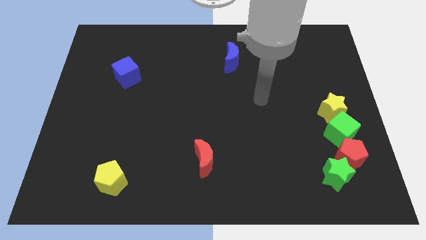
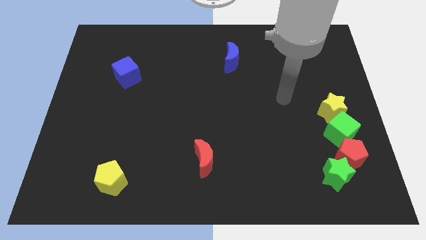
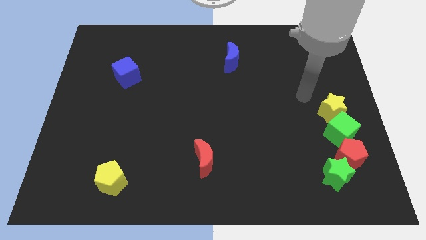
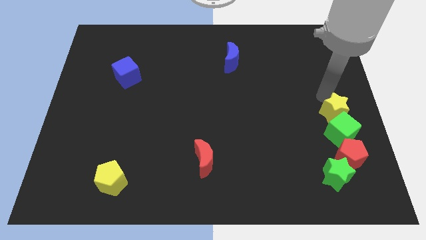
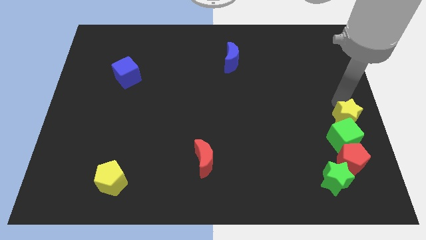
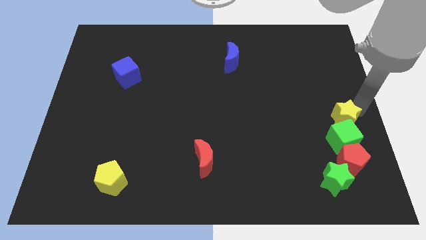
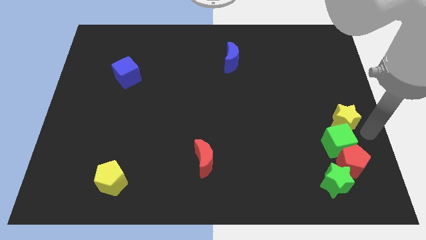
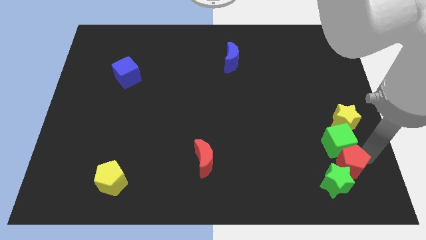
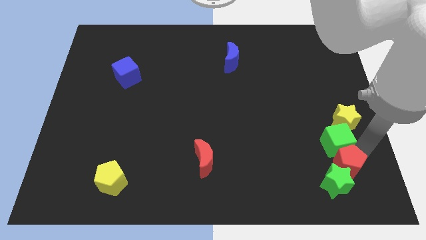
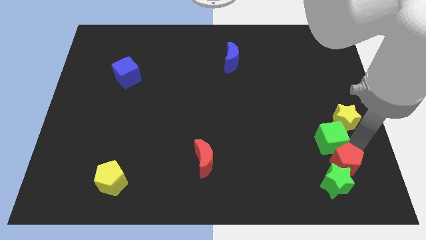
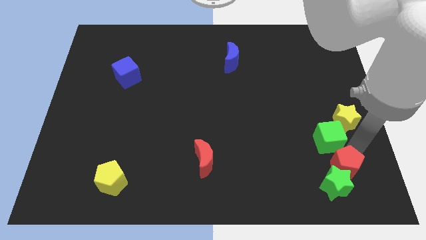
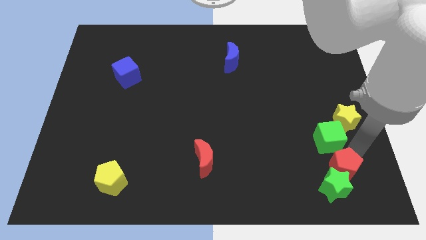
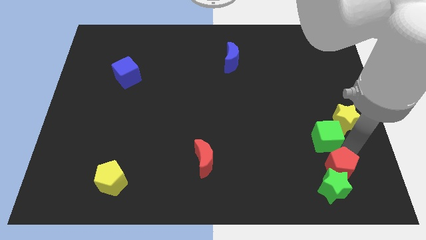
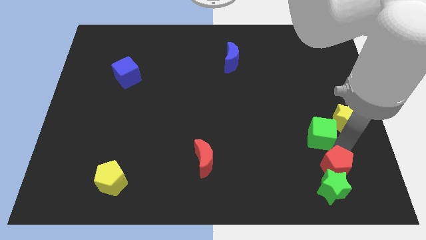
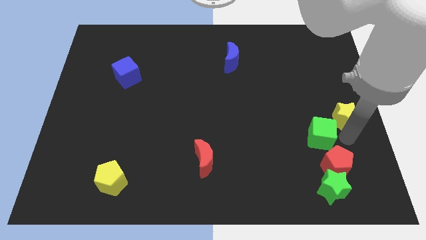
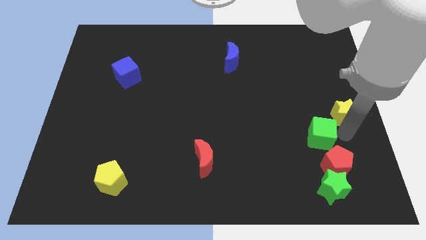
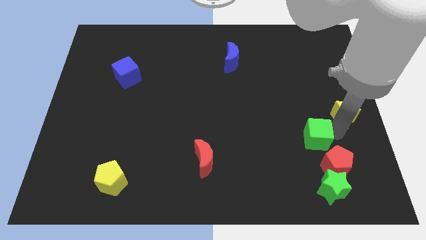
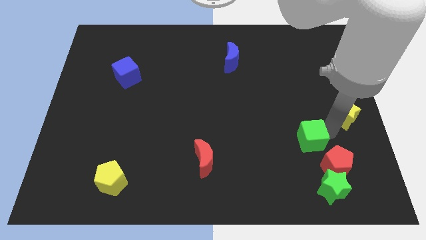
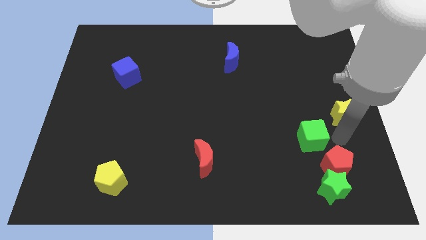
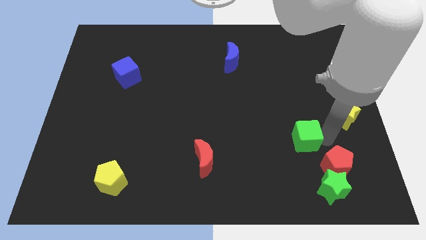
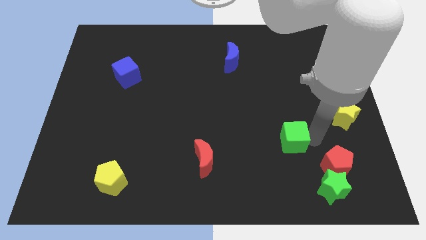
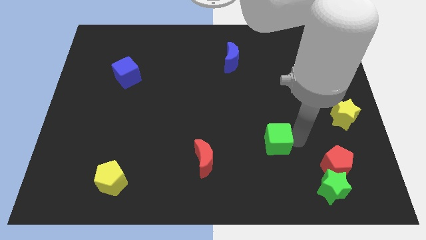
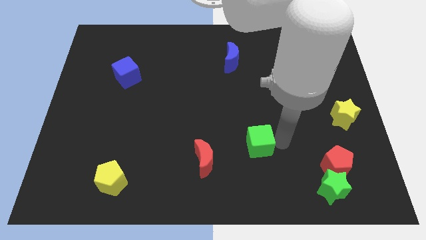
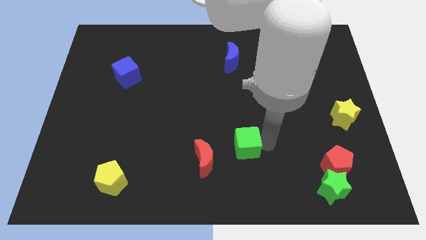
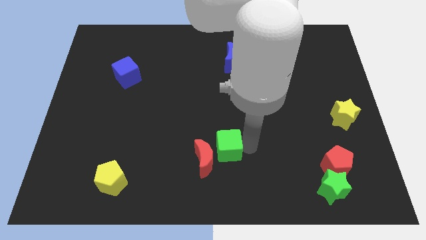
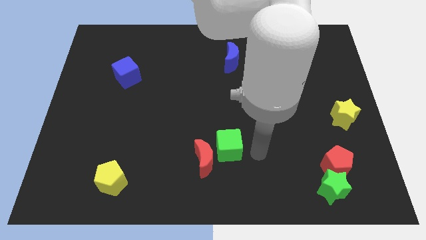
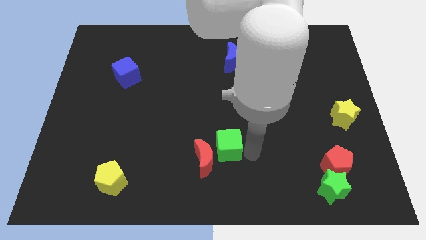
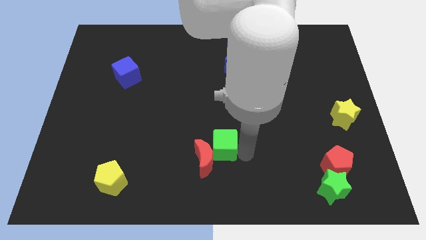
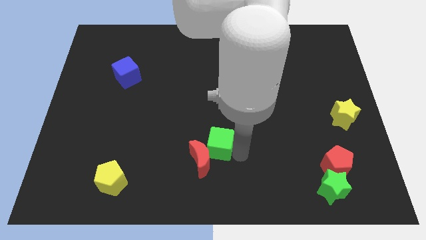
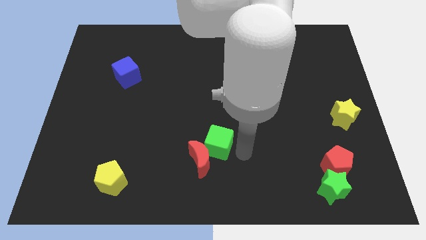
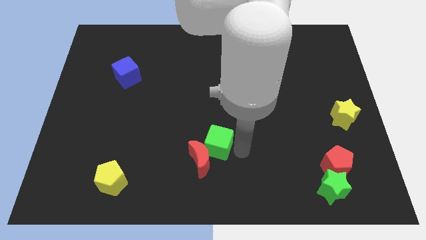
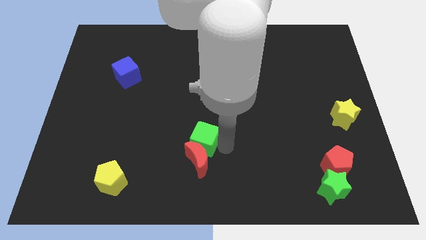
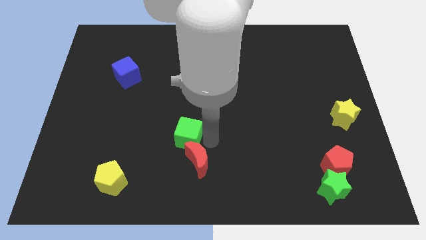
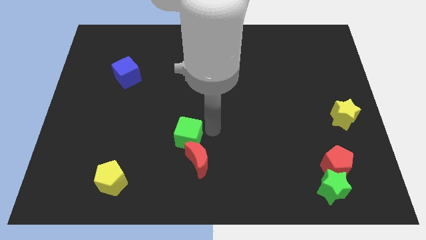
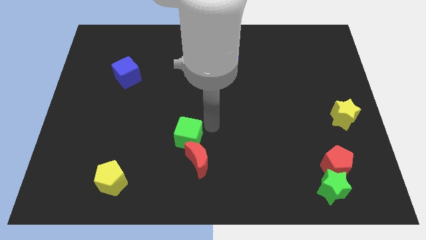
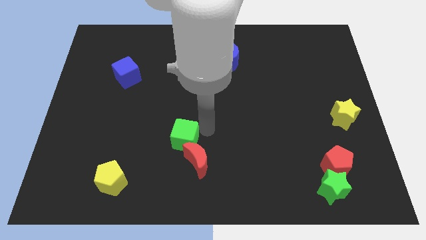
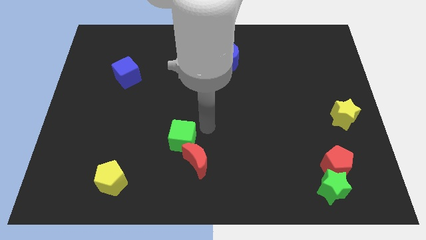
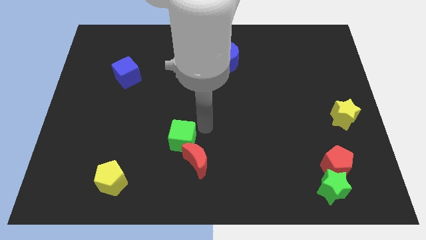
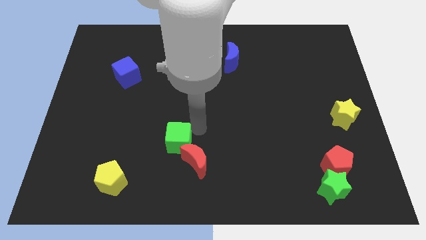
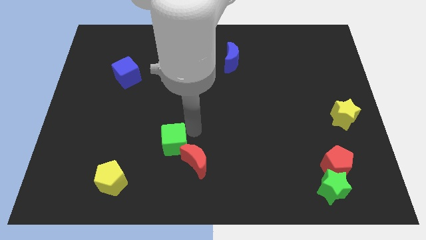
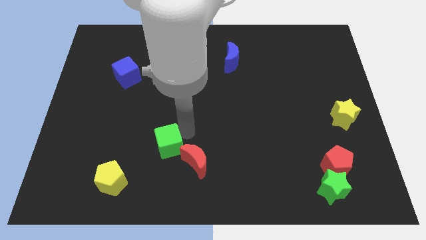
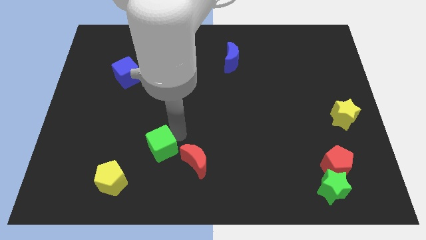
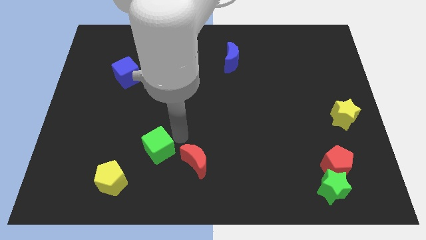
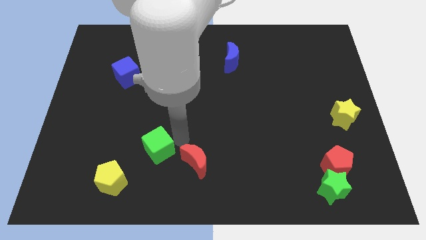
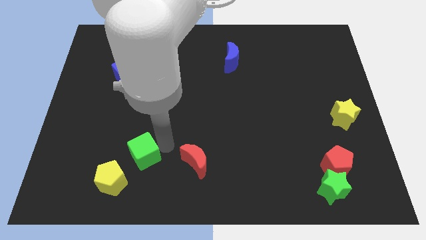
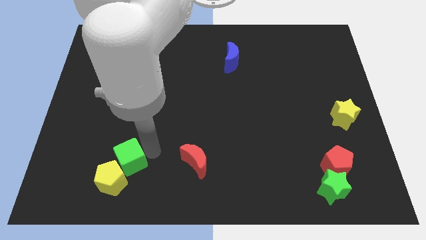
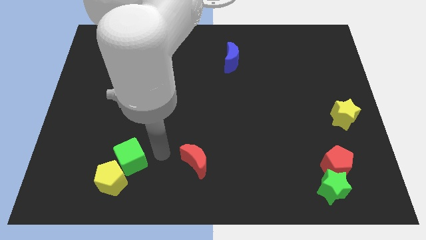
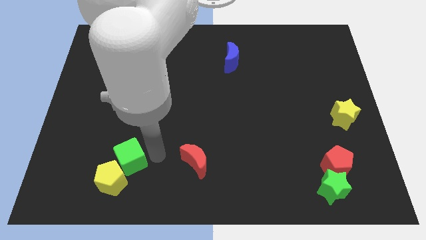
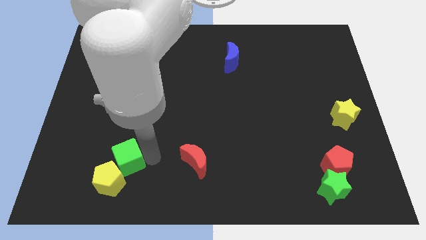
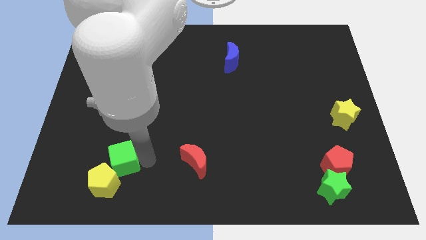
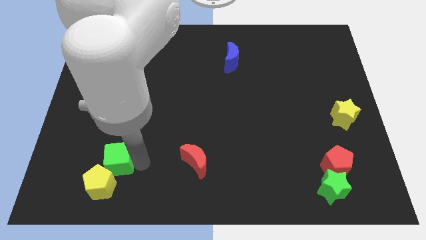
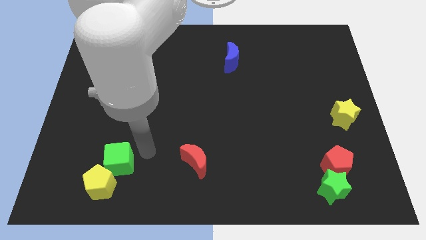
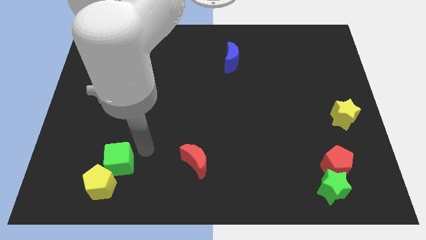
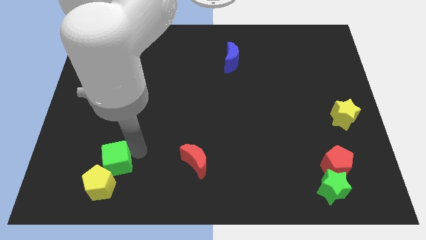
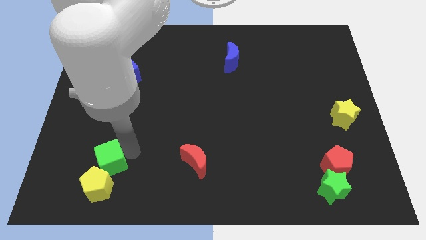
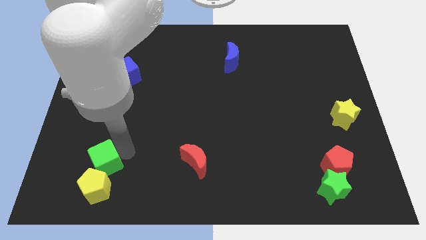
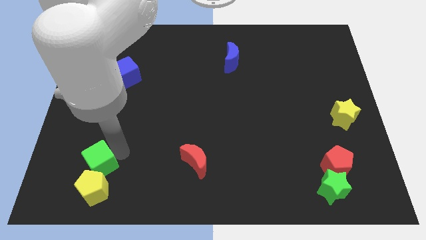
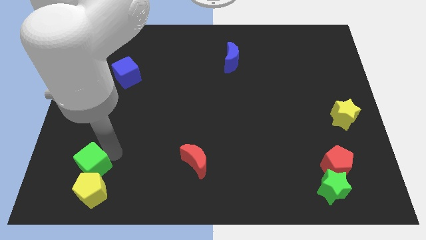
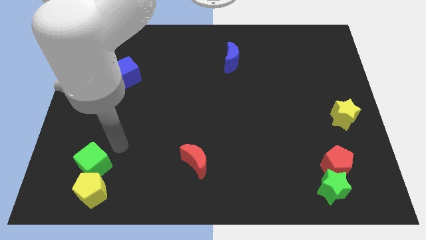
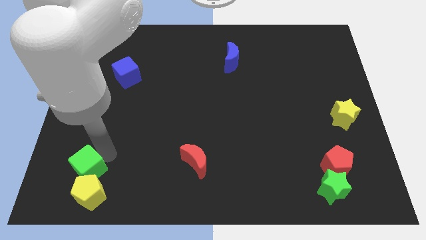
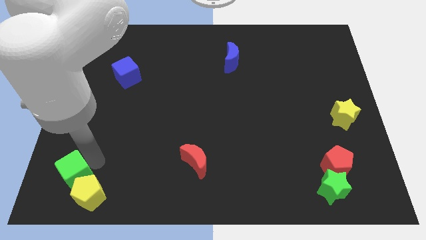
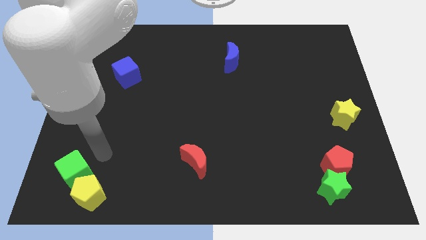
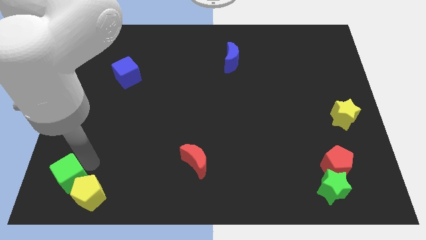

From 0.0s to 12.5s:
push the green cube to the lower left corner

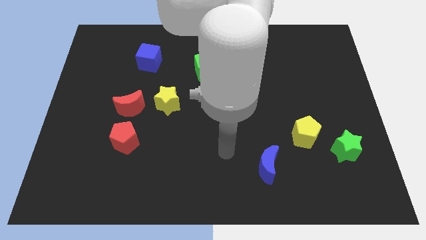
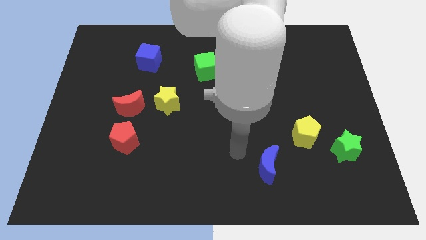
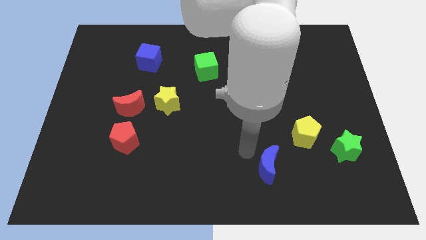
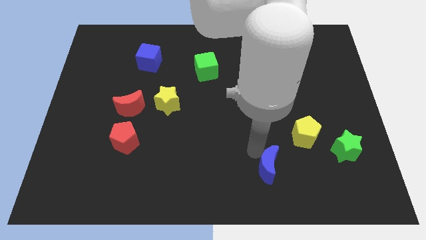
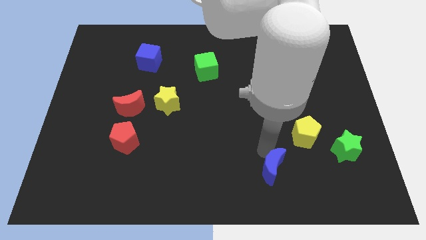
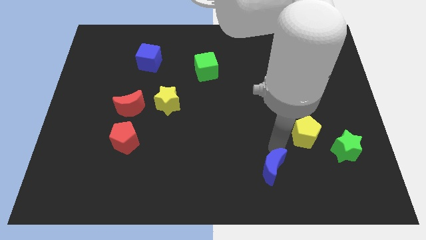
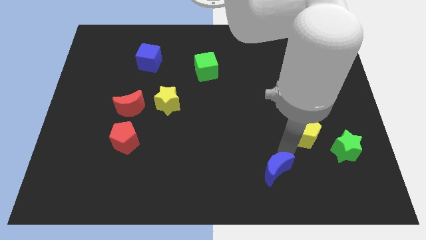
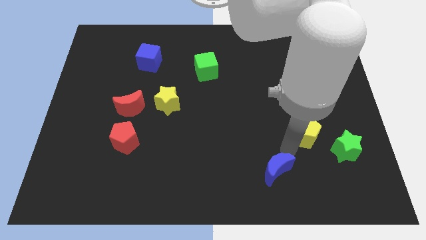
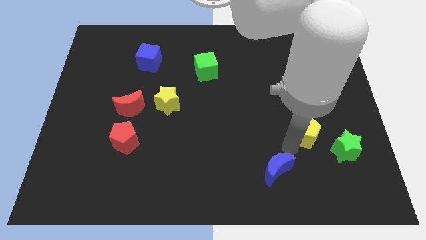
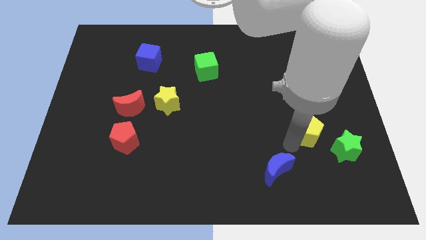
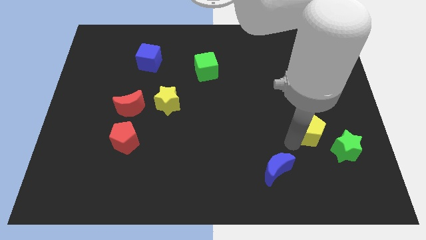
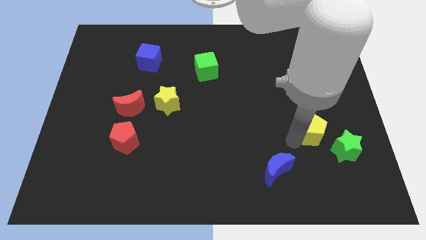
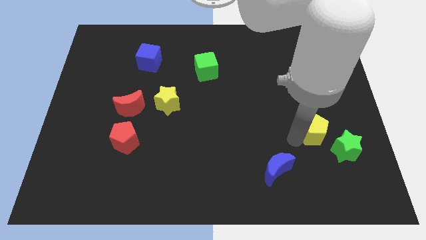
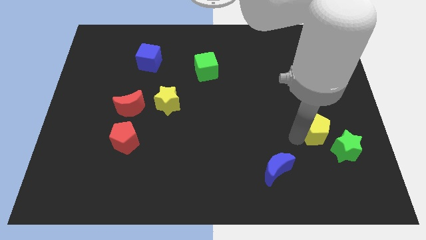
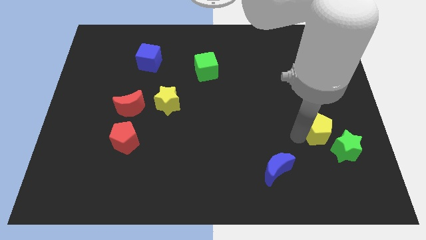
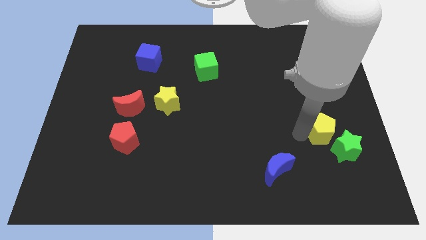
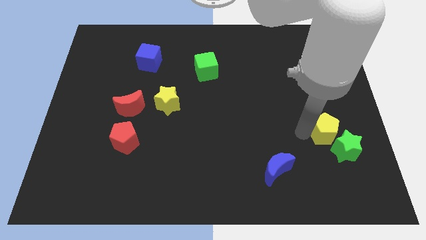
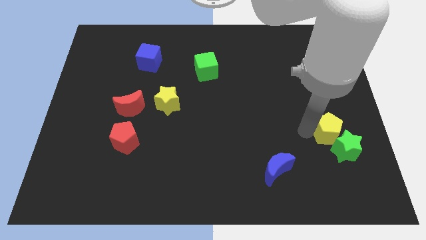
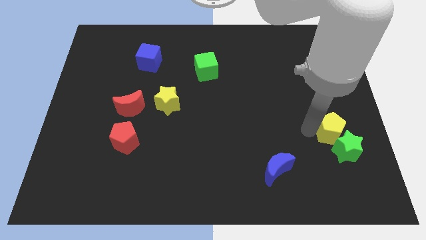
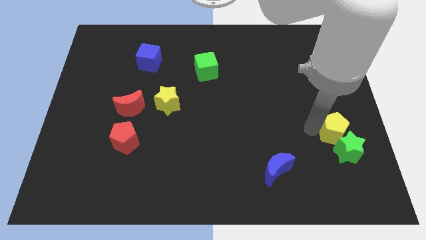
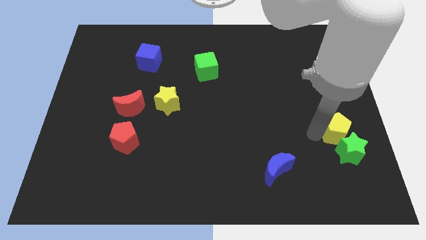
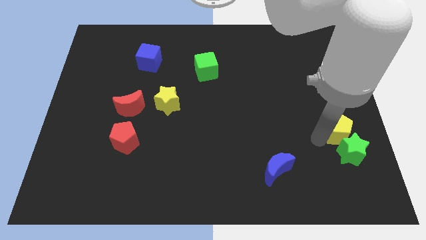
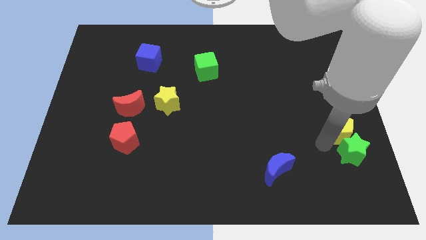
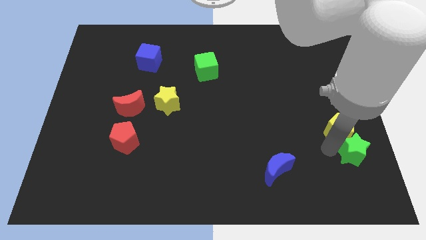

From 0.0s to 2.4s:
put the yellow pentagon to the right side of the board
